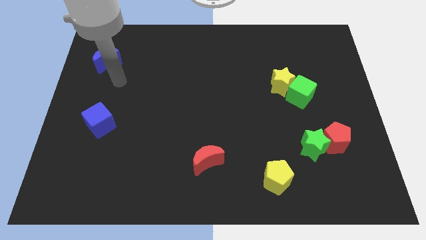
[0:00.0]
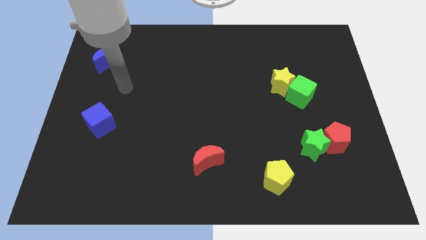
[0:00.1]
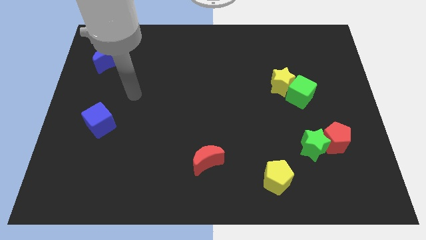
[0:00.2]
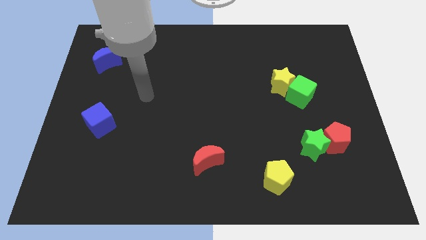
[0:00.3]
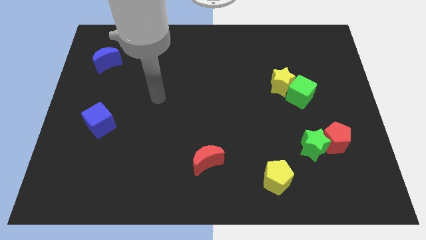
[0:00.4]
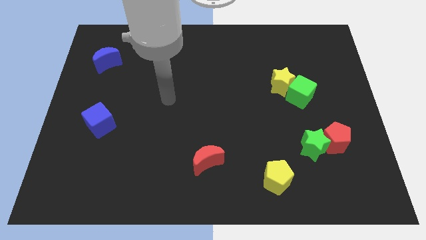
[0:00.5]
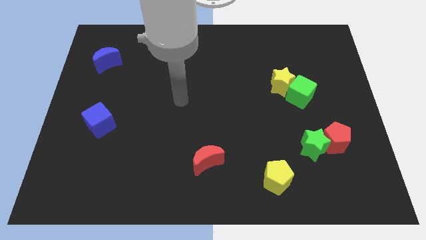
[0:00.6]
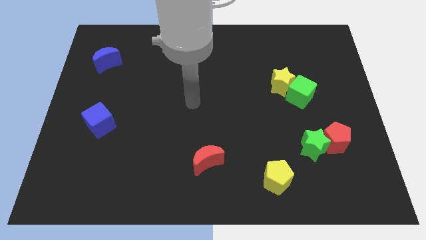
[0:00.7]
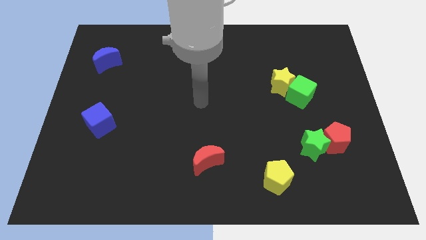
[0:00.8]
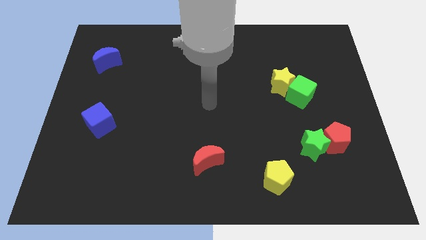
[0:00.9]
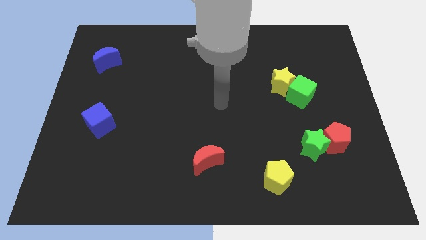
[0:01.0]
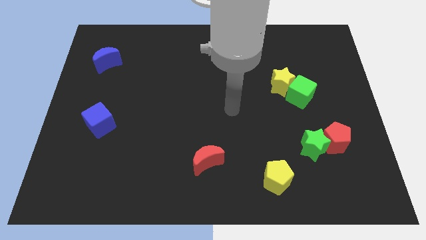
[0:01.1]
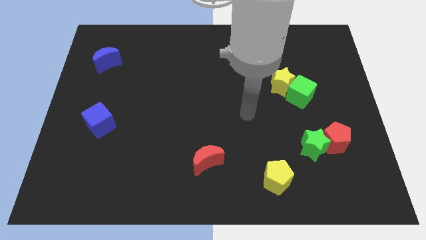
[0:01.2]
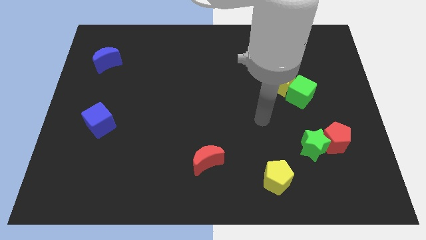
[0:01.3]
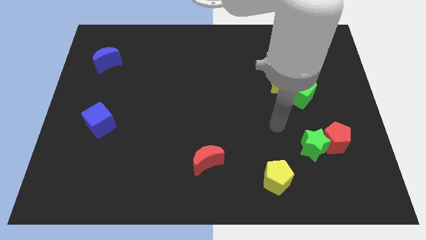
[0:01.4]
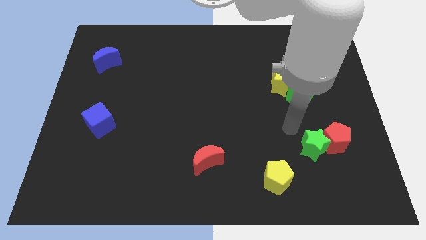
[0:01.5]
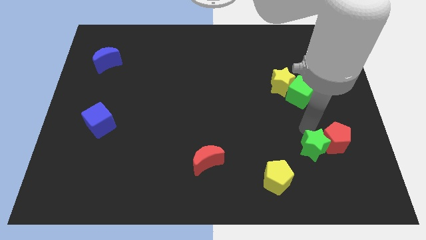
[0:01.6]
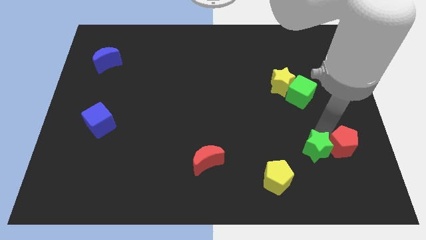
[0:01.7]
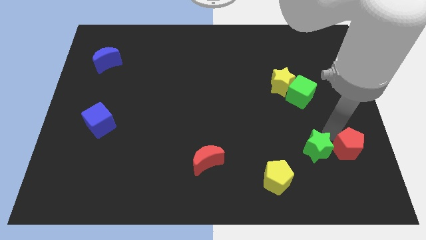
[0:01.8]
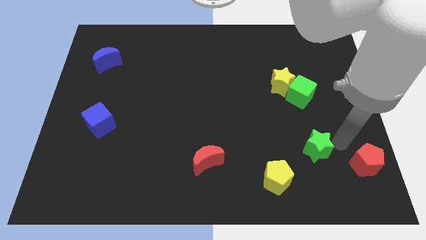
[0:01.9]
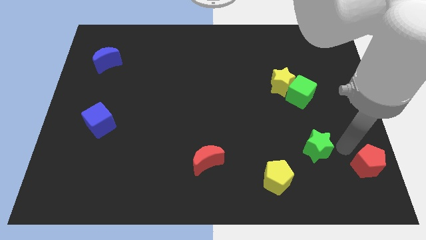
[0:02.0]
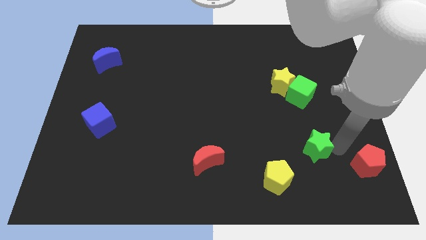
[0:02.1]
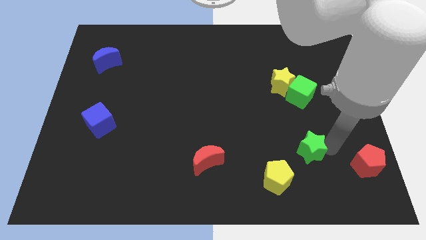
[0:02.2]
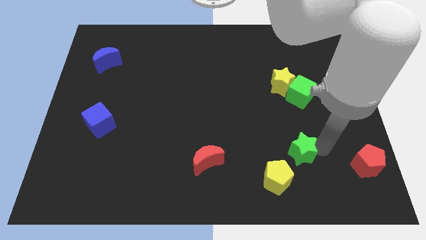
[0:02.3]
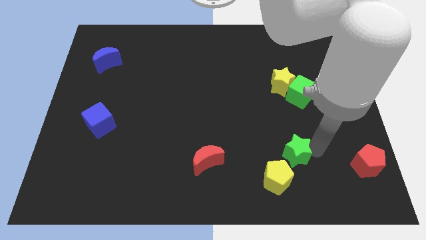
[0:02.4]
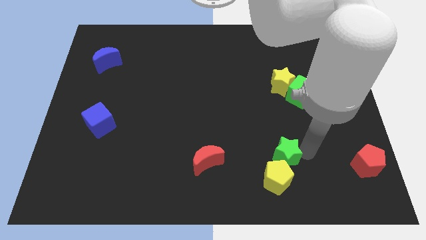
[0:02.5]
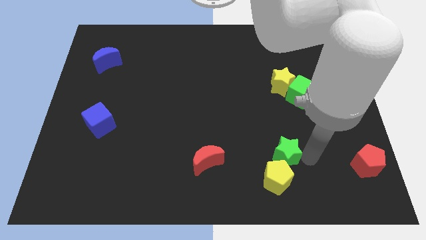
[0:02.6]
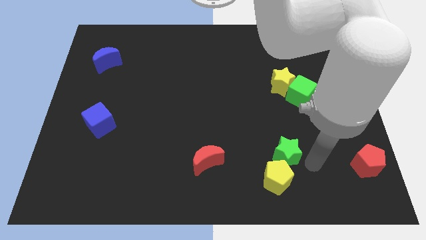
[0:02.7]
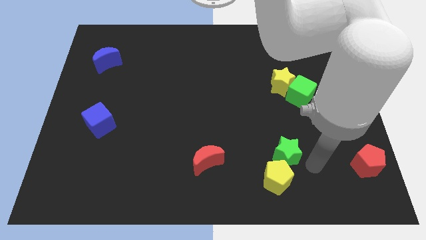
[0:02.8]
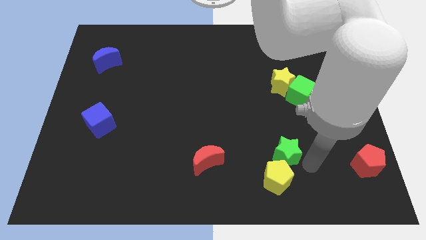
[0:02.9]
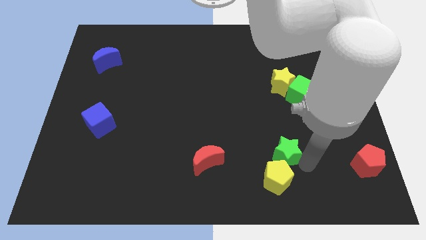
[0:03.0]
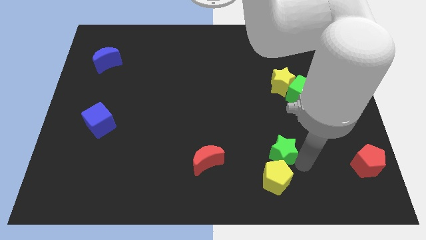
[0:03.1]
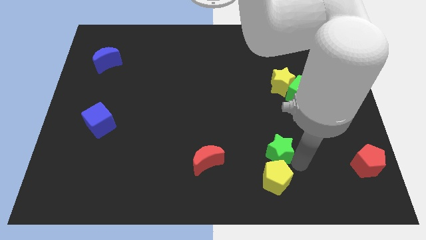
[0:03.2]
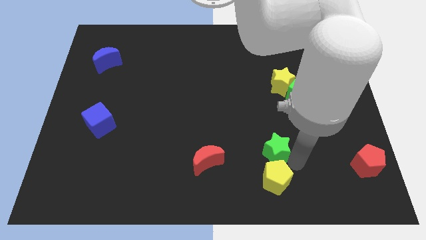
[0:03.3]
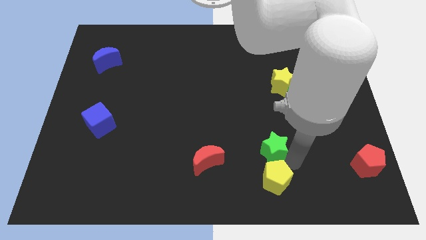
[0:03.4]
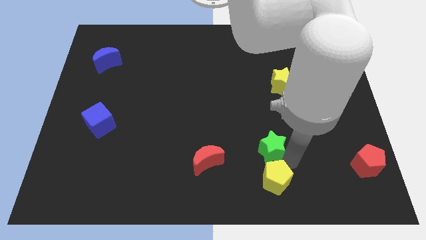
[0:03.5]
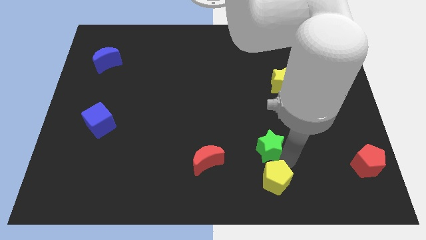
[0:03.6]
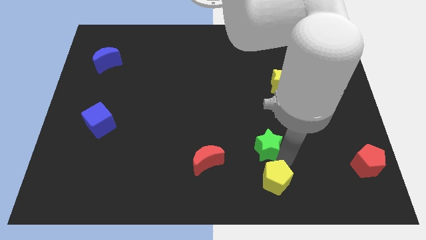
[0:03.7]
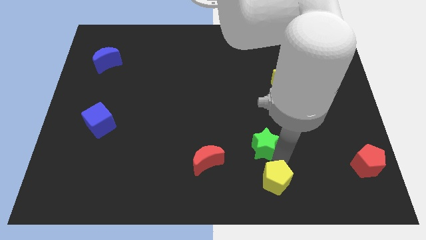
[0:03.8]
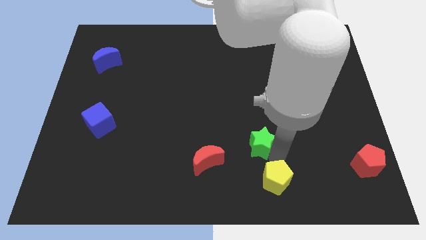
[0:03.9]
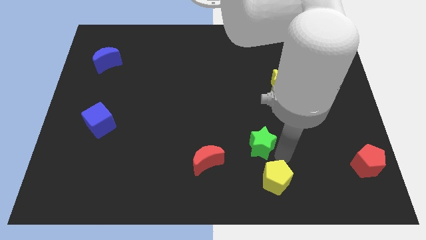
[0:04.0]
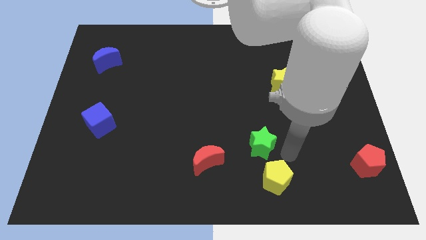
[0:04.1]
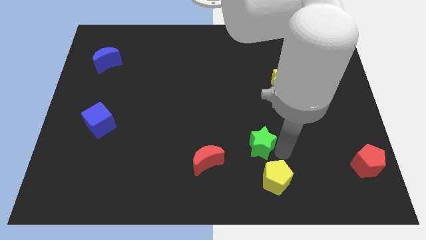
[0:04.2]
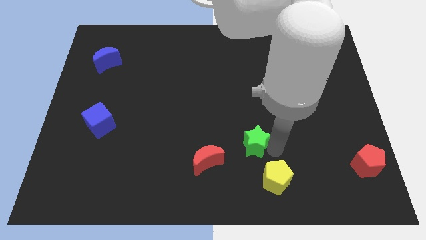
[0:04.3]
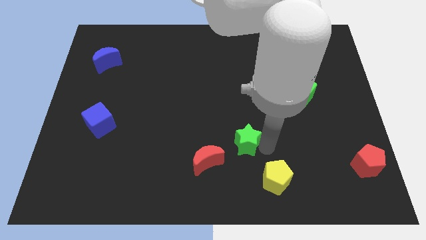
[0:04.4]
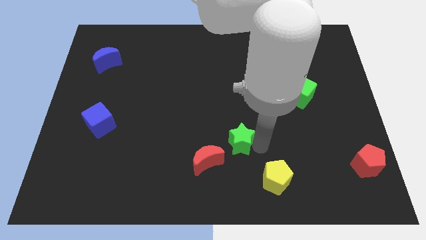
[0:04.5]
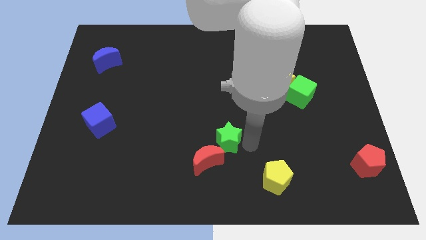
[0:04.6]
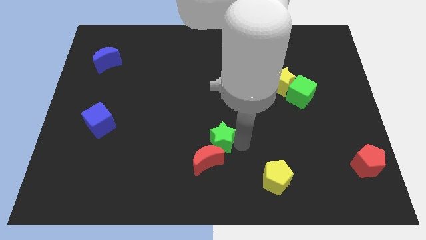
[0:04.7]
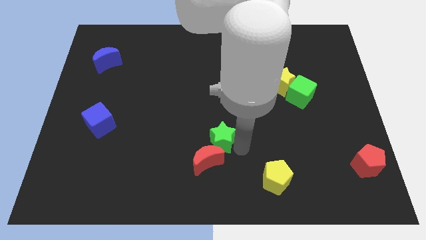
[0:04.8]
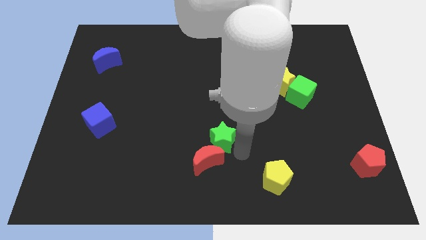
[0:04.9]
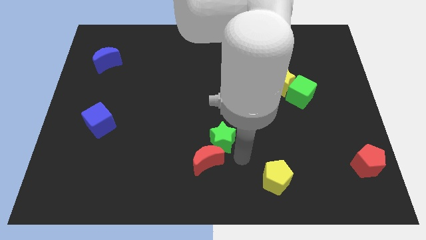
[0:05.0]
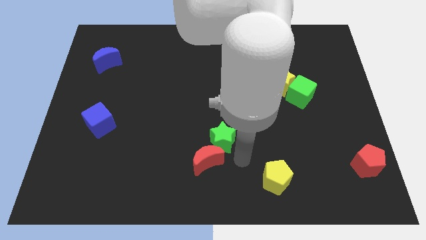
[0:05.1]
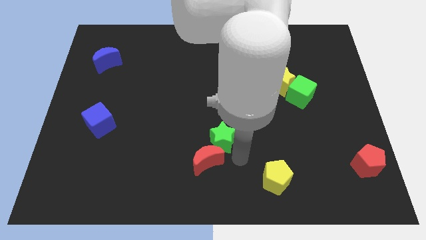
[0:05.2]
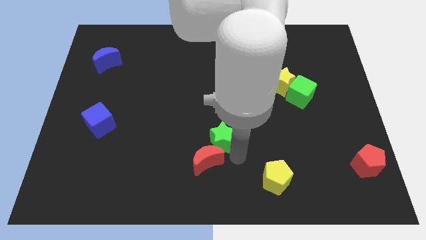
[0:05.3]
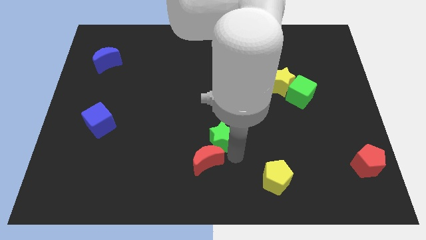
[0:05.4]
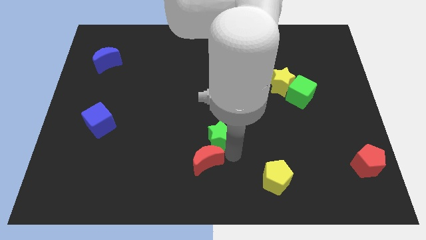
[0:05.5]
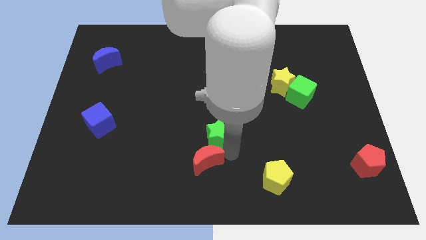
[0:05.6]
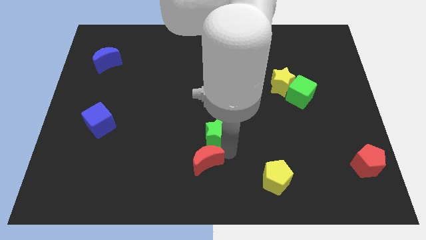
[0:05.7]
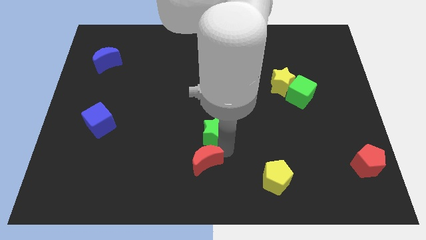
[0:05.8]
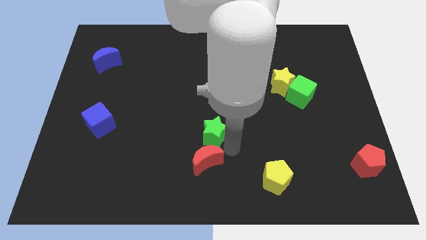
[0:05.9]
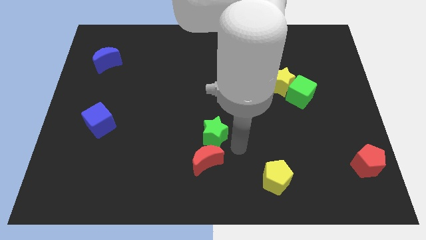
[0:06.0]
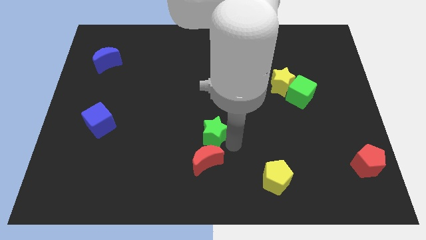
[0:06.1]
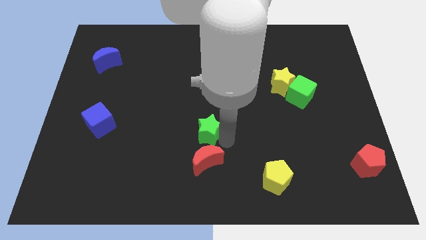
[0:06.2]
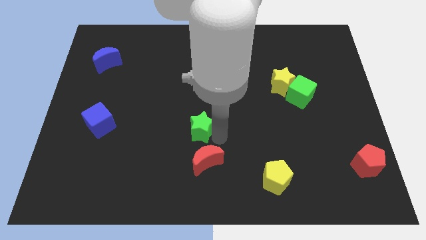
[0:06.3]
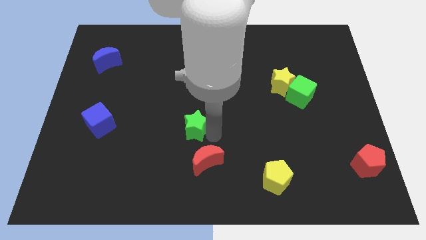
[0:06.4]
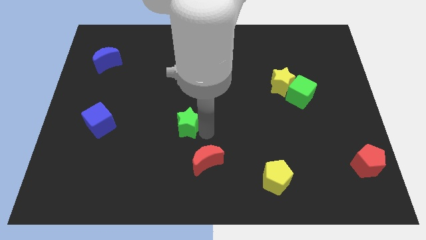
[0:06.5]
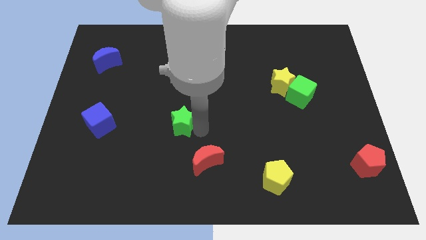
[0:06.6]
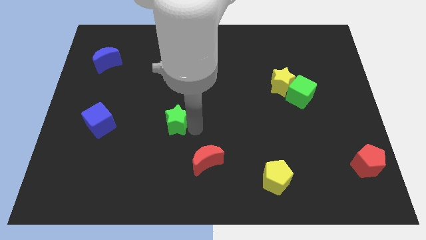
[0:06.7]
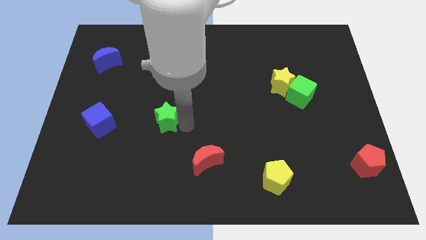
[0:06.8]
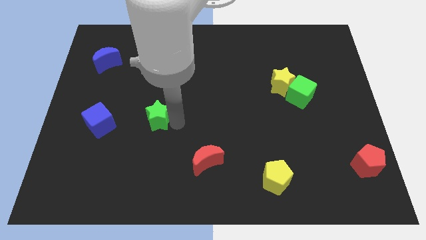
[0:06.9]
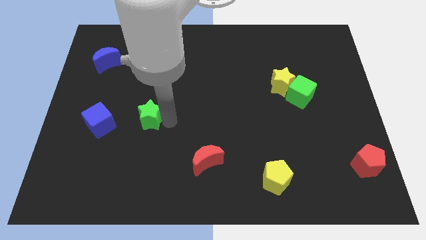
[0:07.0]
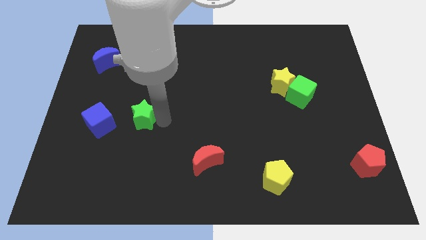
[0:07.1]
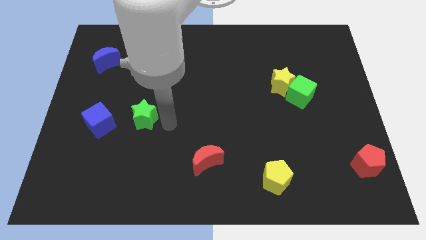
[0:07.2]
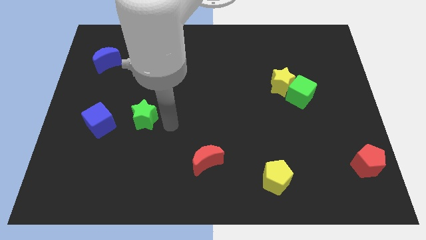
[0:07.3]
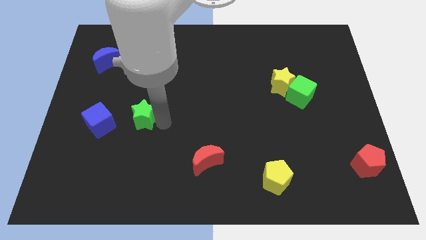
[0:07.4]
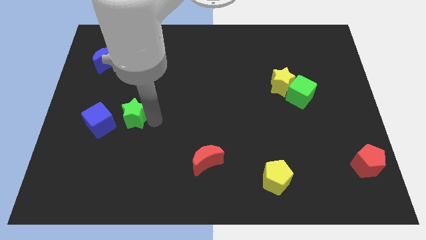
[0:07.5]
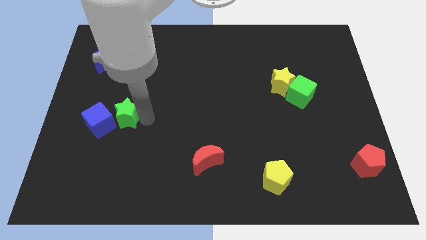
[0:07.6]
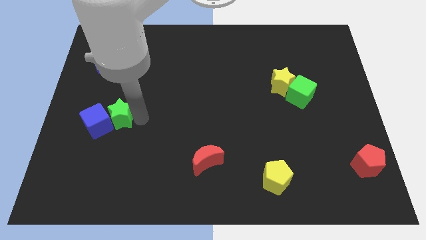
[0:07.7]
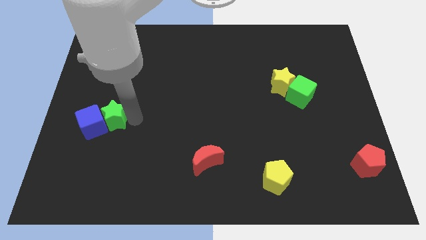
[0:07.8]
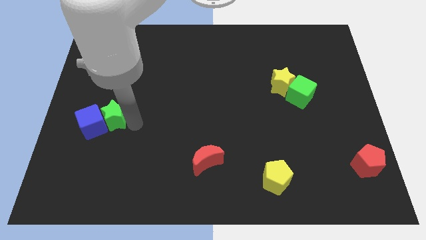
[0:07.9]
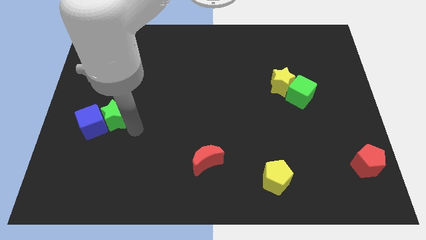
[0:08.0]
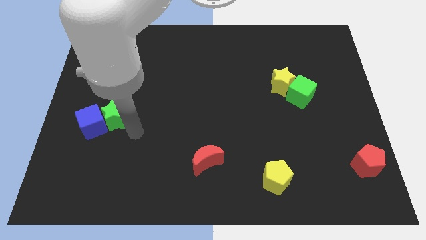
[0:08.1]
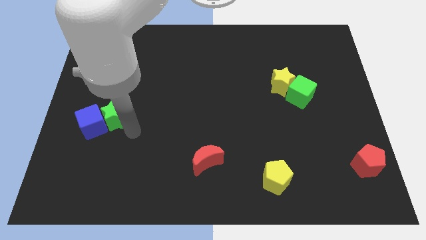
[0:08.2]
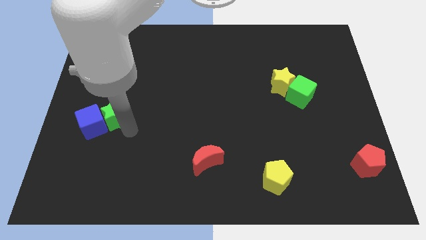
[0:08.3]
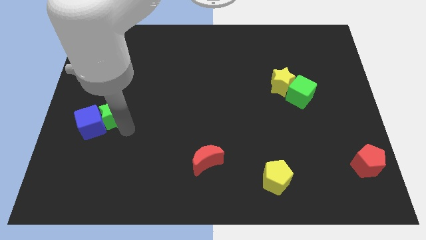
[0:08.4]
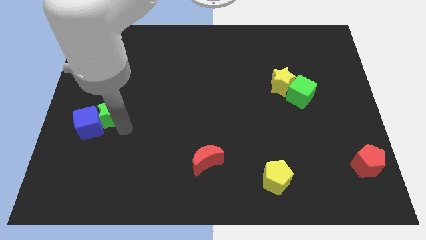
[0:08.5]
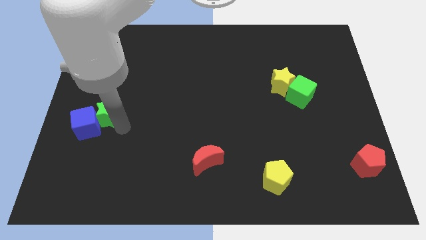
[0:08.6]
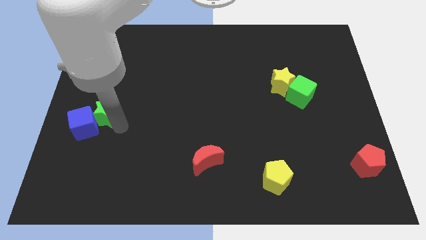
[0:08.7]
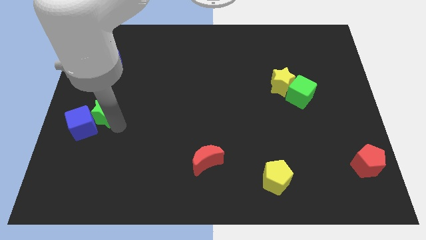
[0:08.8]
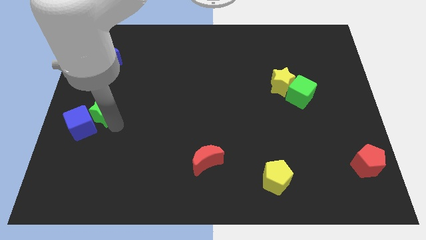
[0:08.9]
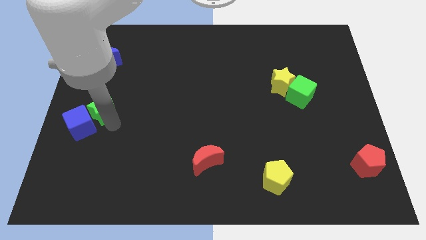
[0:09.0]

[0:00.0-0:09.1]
push the green star to the left side
